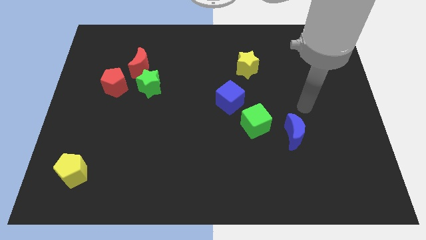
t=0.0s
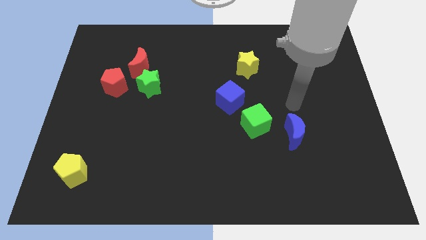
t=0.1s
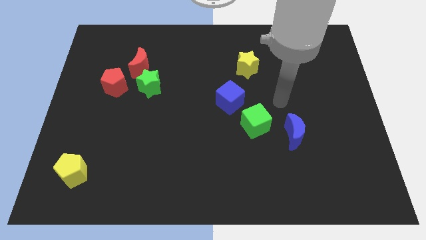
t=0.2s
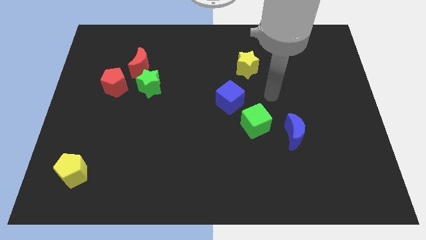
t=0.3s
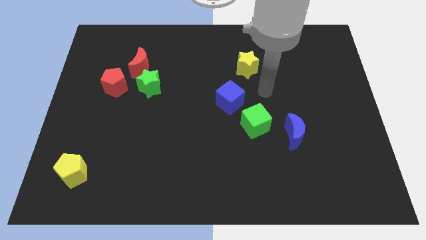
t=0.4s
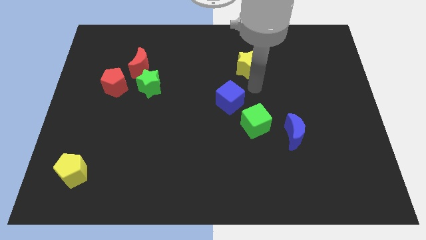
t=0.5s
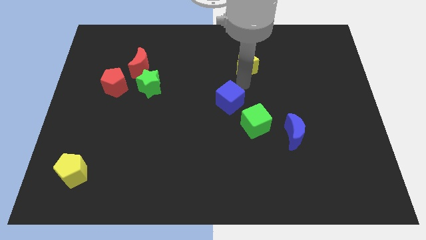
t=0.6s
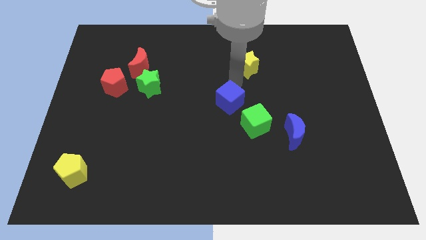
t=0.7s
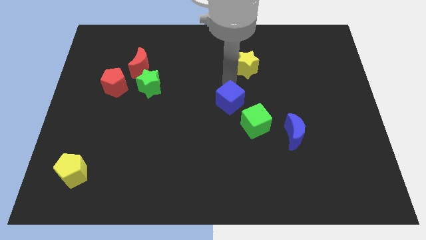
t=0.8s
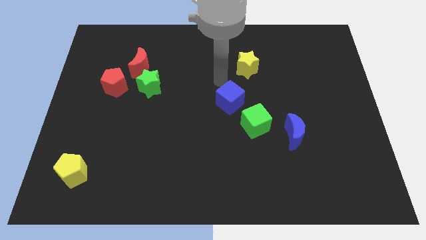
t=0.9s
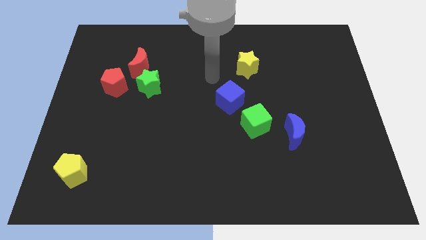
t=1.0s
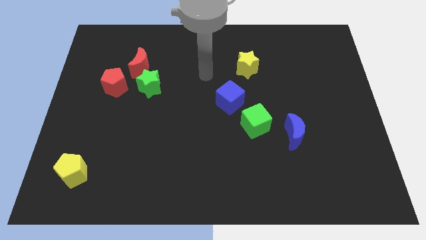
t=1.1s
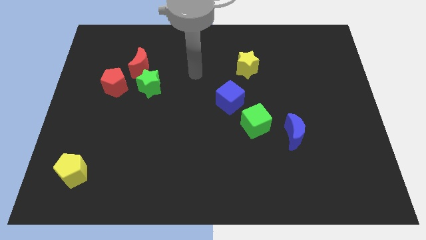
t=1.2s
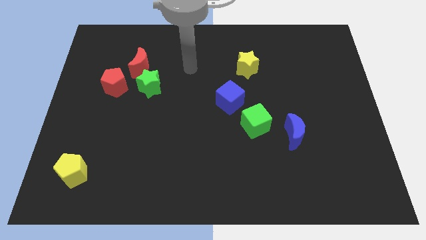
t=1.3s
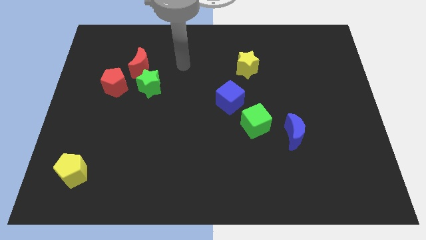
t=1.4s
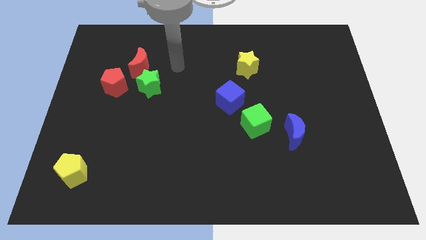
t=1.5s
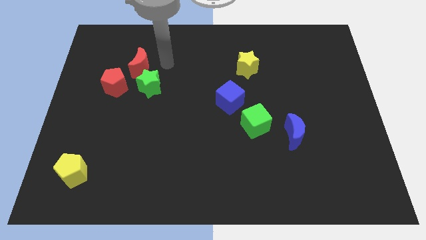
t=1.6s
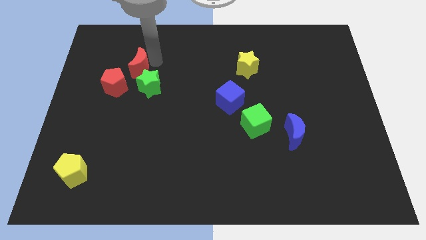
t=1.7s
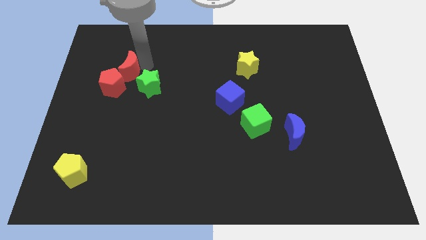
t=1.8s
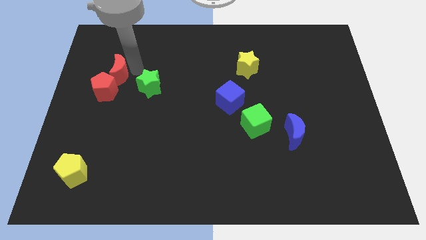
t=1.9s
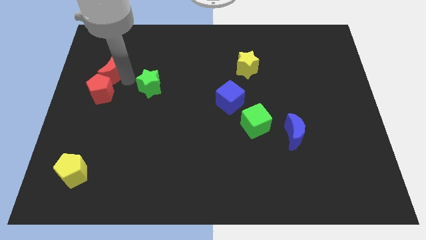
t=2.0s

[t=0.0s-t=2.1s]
pull the green star apart from the red moon and red pentagon

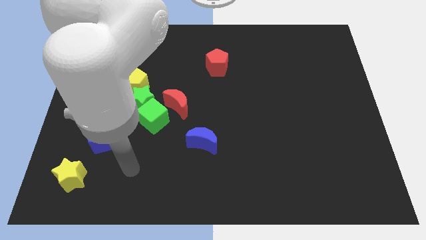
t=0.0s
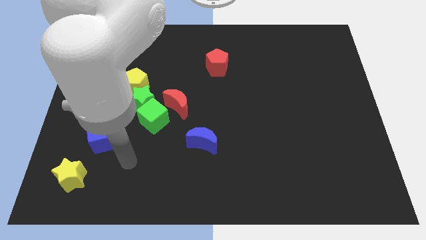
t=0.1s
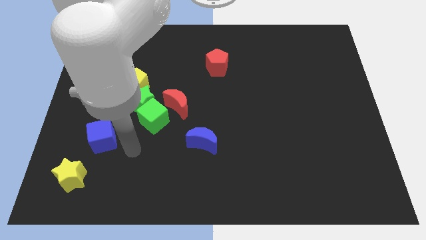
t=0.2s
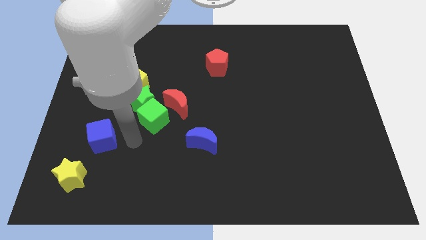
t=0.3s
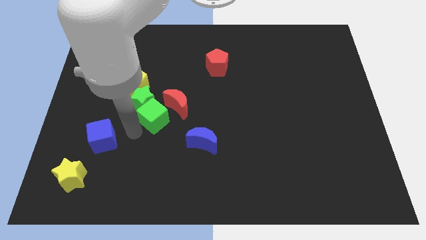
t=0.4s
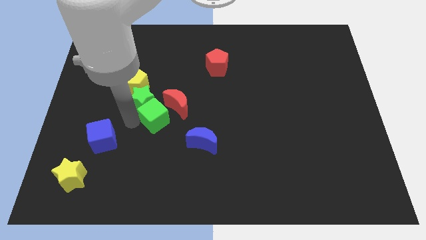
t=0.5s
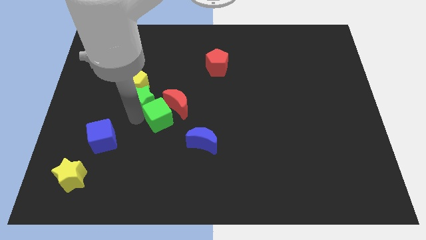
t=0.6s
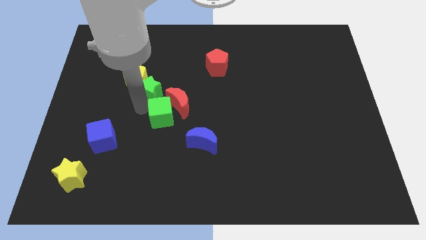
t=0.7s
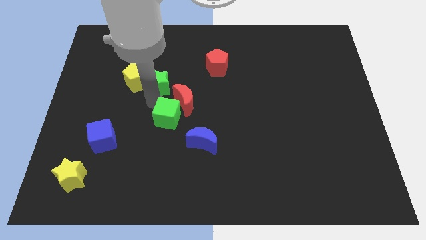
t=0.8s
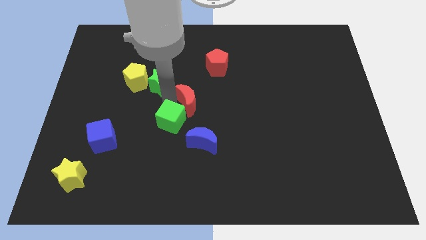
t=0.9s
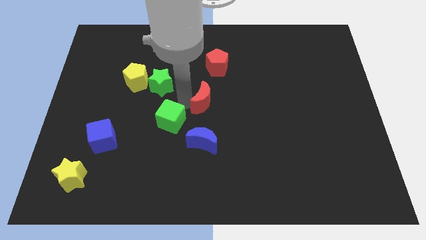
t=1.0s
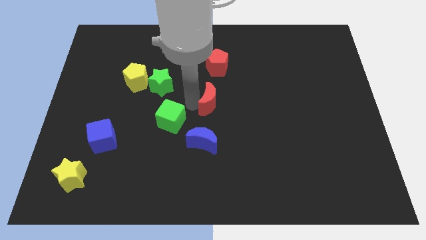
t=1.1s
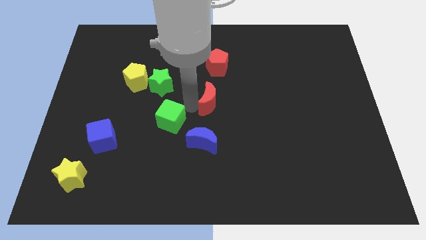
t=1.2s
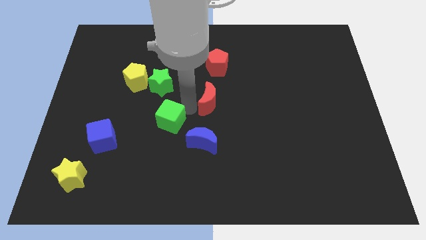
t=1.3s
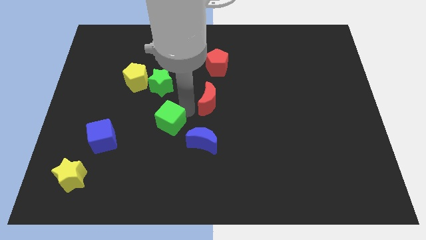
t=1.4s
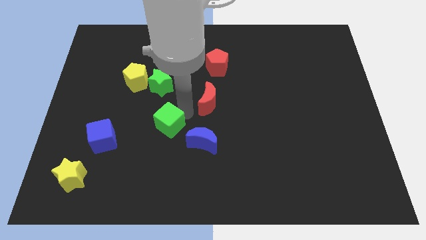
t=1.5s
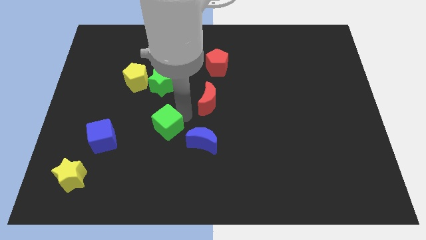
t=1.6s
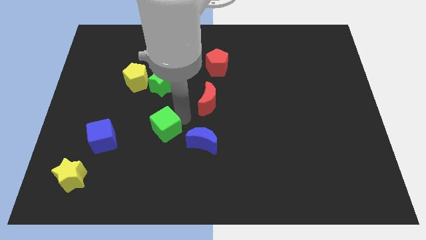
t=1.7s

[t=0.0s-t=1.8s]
separate the green cube from the green star and red moon

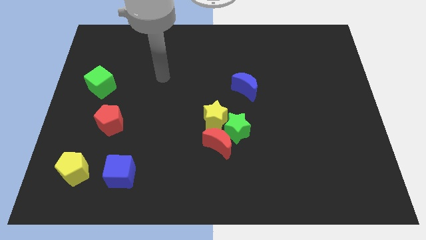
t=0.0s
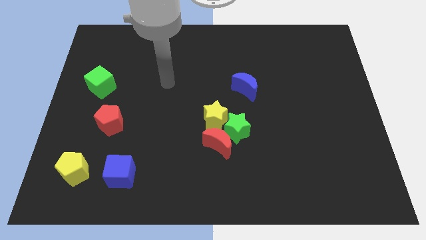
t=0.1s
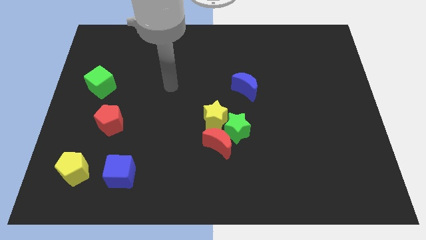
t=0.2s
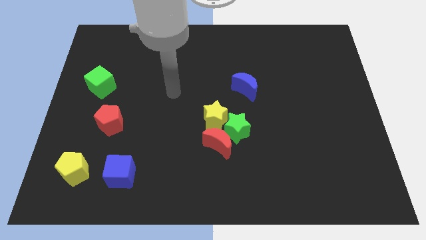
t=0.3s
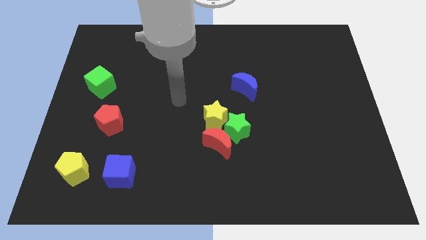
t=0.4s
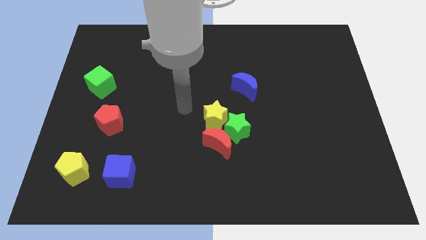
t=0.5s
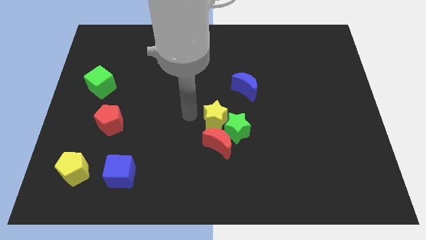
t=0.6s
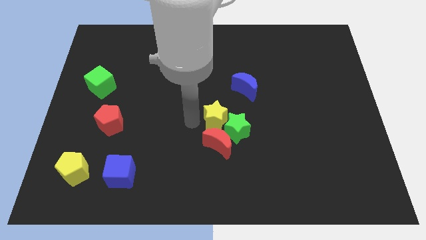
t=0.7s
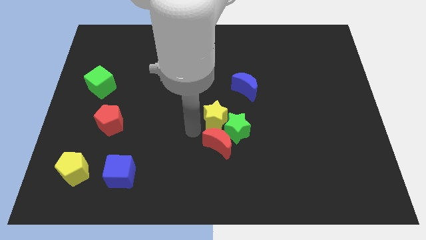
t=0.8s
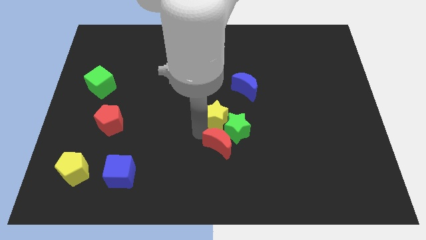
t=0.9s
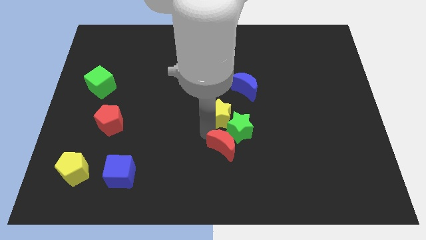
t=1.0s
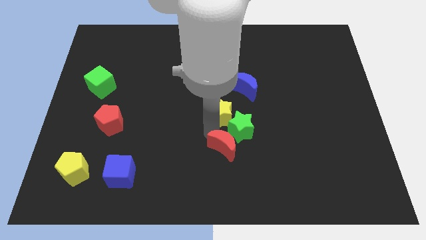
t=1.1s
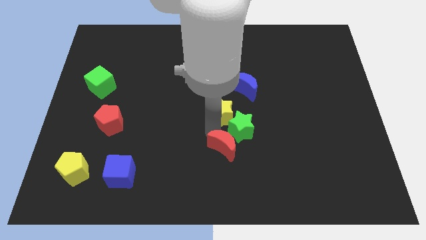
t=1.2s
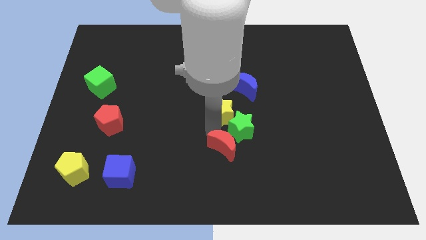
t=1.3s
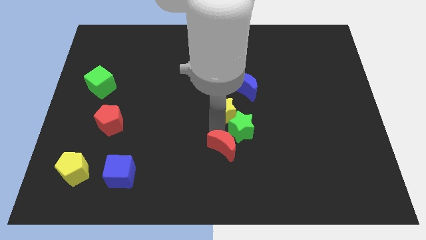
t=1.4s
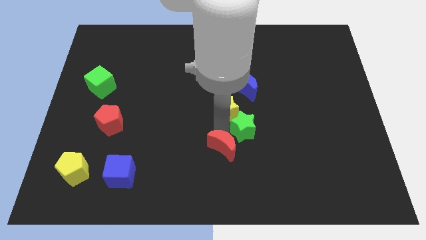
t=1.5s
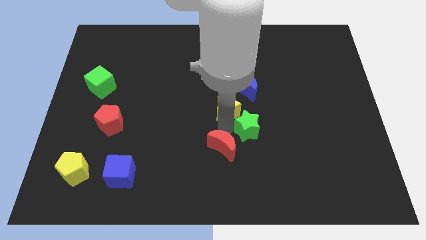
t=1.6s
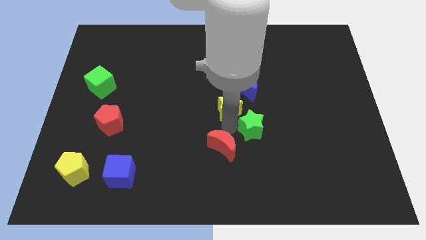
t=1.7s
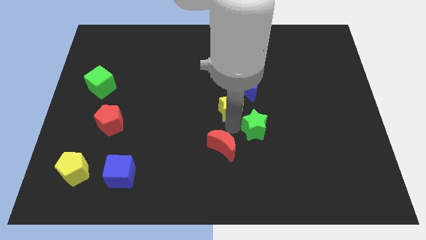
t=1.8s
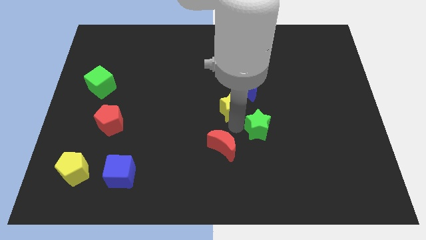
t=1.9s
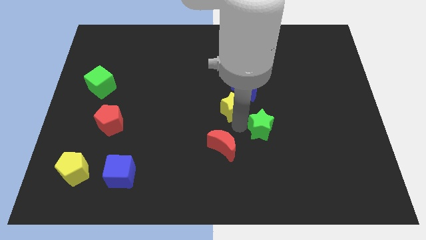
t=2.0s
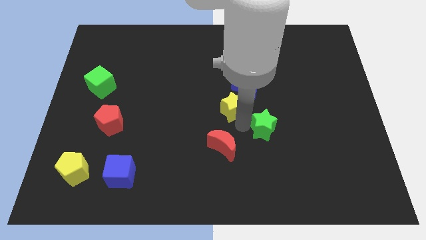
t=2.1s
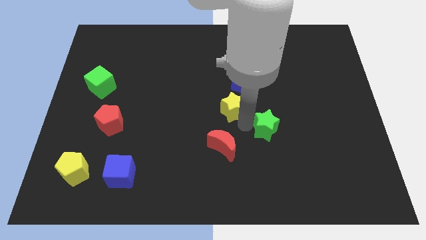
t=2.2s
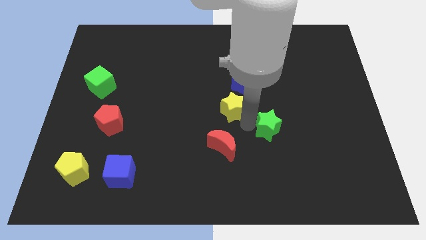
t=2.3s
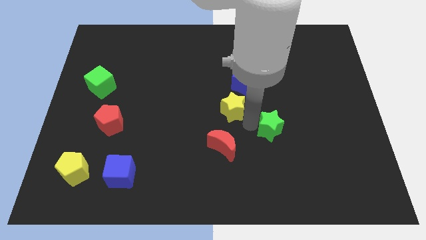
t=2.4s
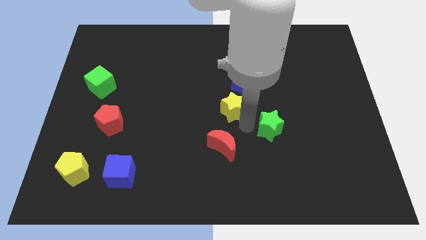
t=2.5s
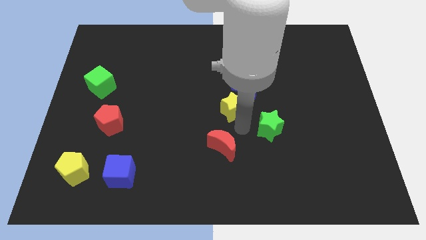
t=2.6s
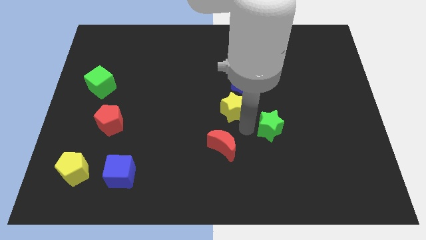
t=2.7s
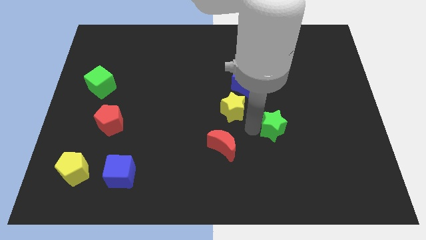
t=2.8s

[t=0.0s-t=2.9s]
separate the green star from the yellow star and red moon

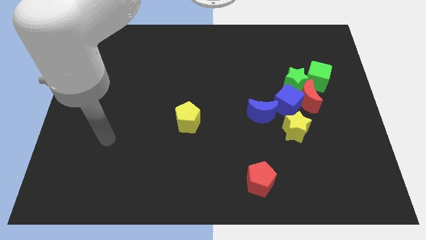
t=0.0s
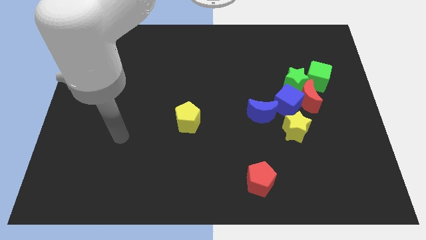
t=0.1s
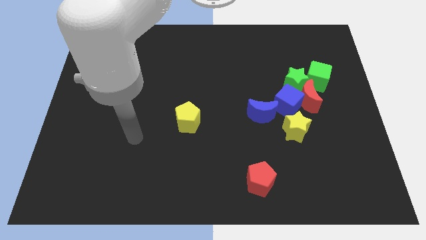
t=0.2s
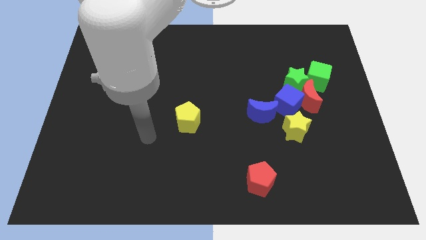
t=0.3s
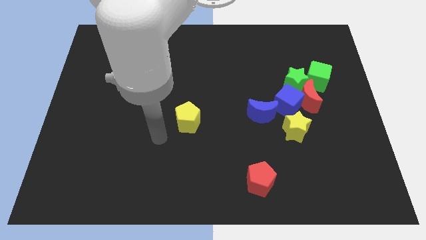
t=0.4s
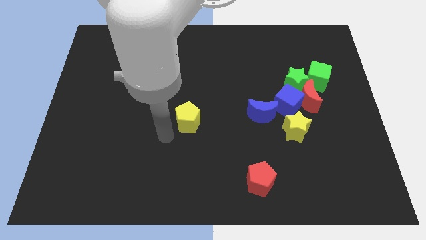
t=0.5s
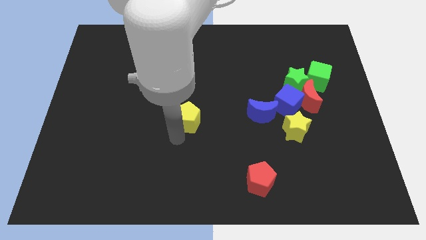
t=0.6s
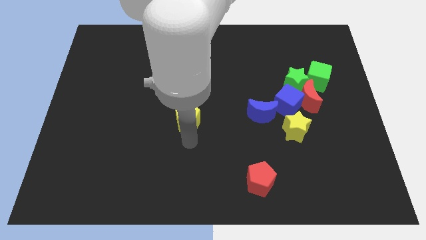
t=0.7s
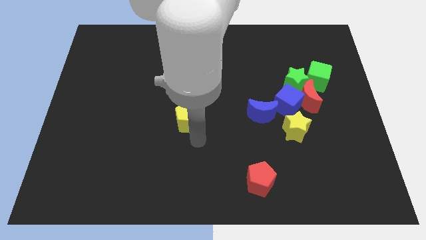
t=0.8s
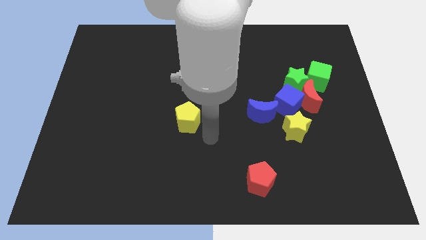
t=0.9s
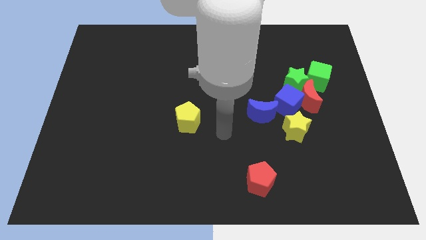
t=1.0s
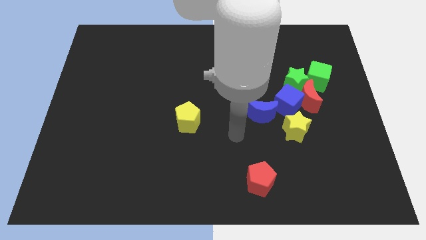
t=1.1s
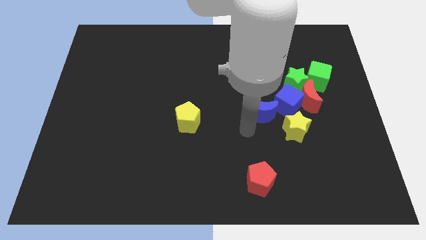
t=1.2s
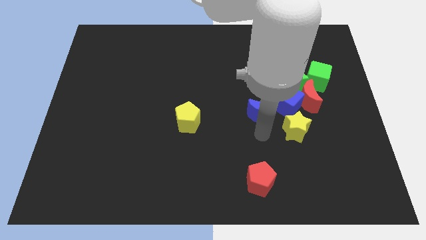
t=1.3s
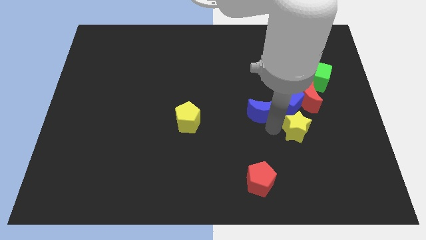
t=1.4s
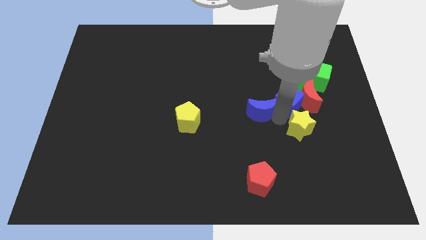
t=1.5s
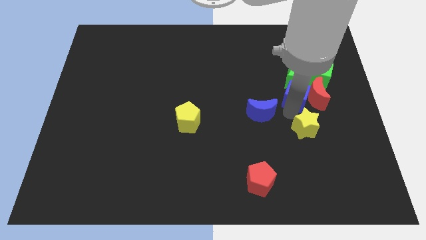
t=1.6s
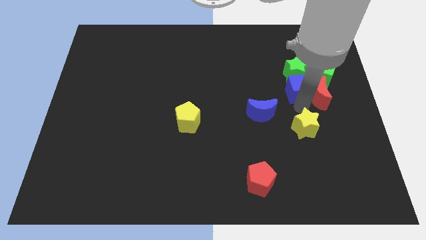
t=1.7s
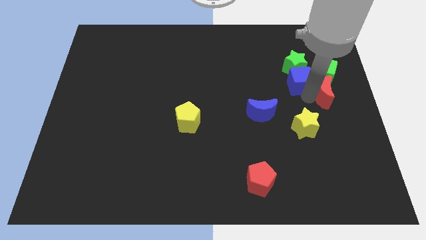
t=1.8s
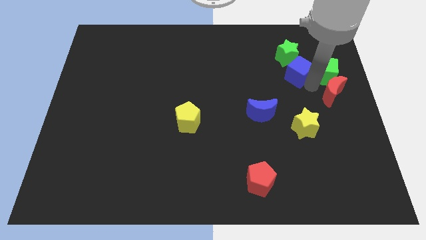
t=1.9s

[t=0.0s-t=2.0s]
separate the green star from the red moon, green cube, and blue cube

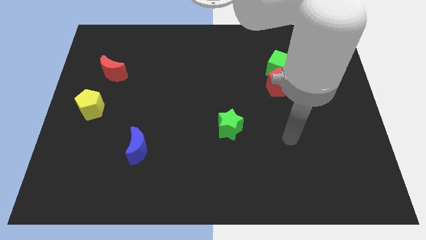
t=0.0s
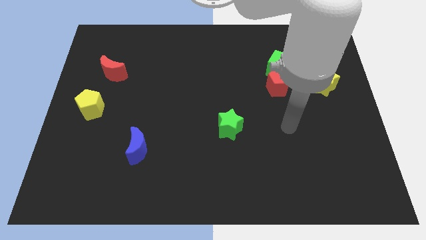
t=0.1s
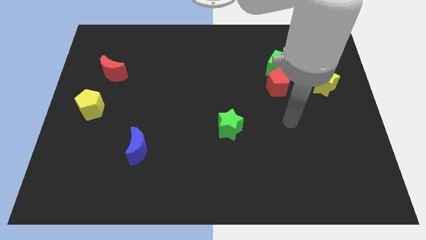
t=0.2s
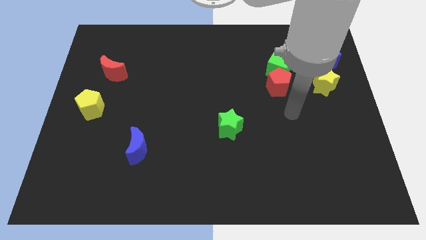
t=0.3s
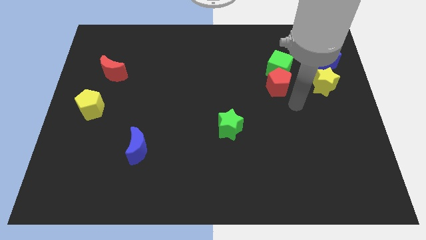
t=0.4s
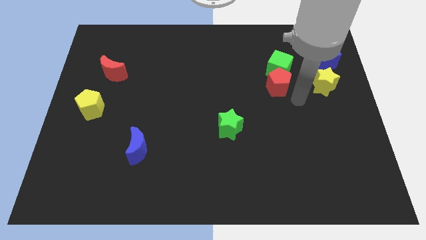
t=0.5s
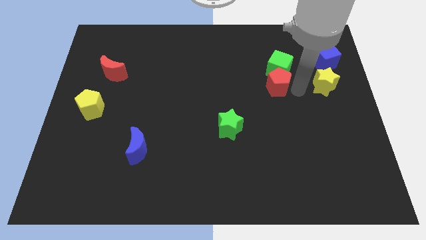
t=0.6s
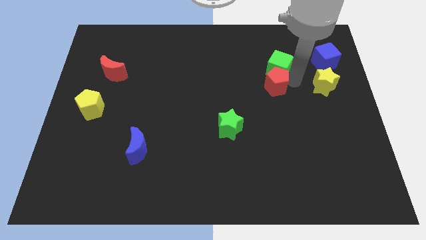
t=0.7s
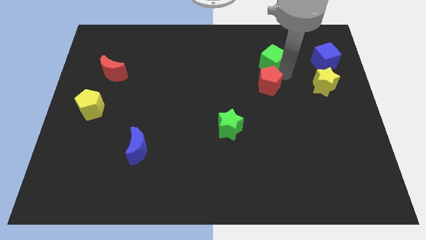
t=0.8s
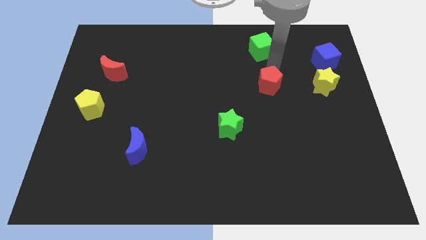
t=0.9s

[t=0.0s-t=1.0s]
separate the red pentagon from the green cube
